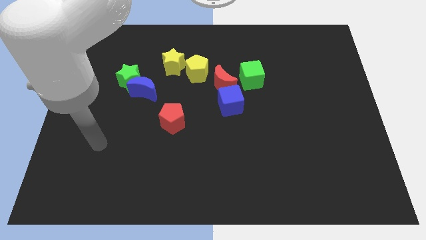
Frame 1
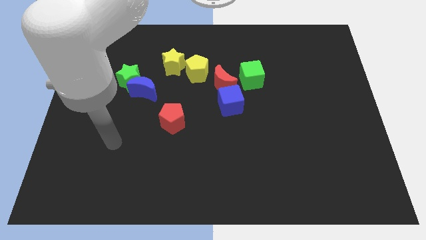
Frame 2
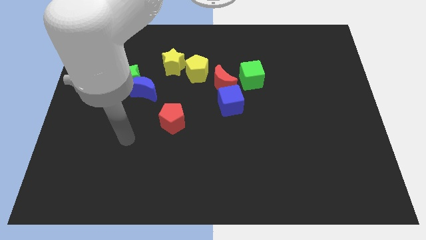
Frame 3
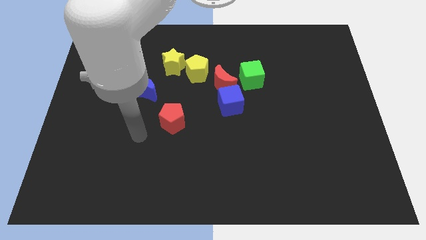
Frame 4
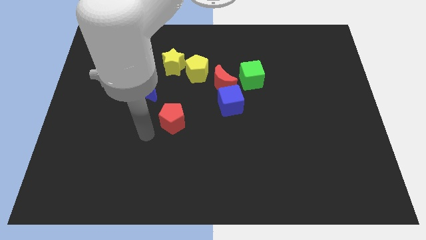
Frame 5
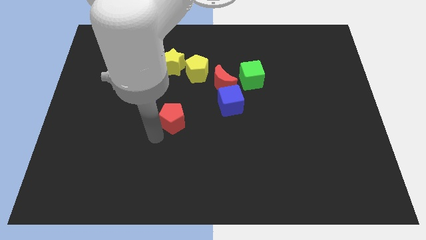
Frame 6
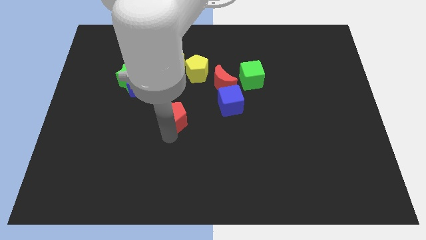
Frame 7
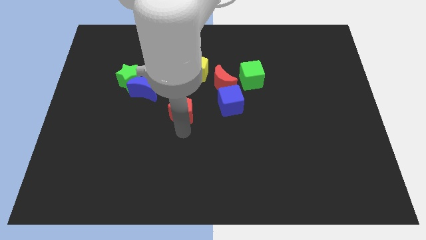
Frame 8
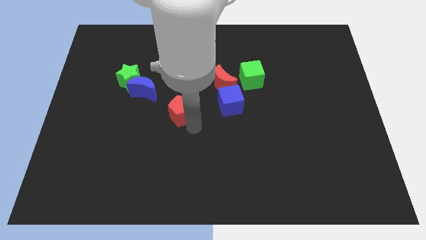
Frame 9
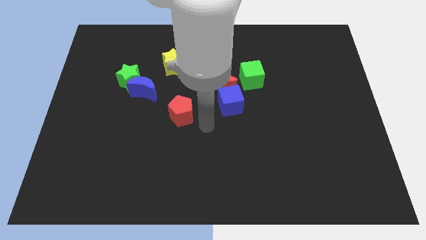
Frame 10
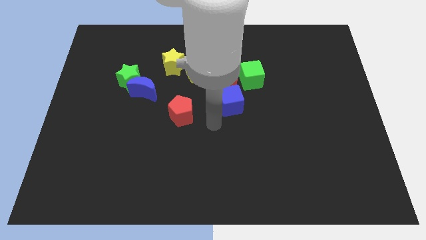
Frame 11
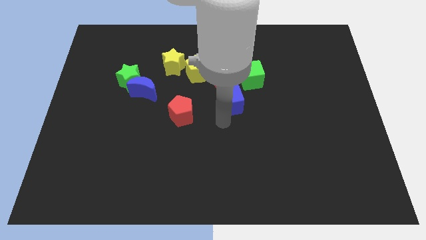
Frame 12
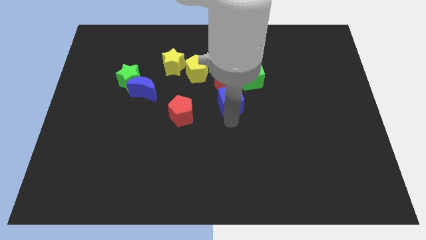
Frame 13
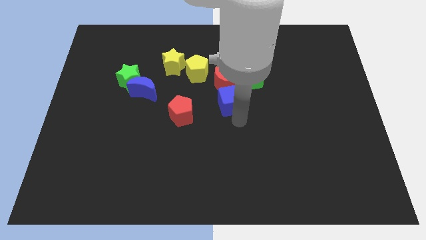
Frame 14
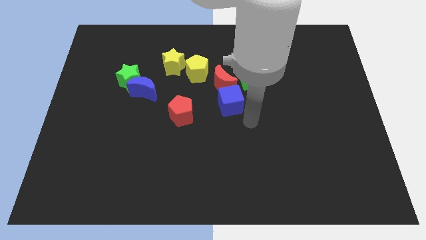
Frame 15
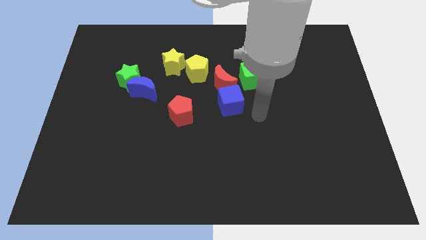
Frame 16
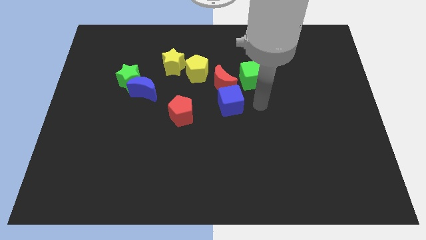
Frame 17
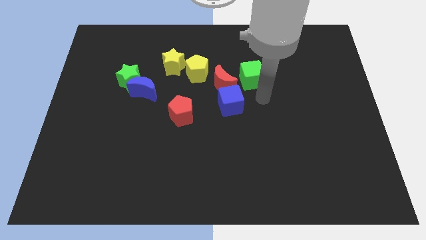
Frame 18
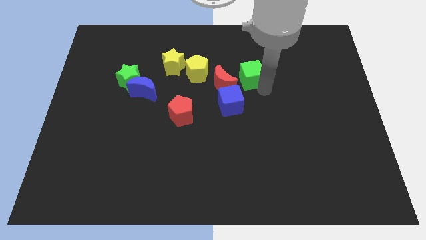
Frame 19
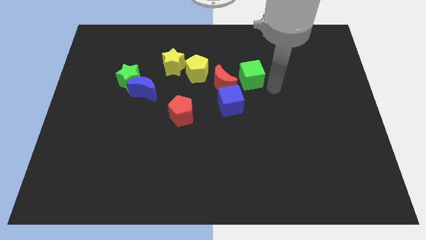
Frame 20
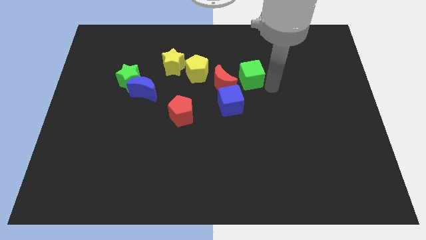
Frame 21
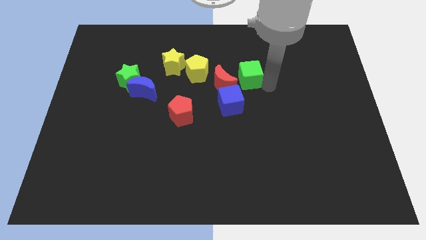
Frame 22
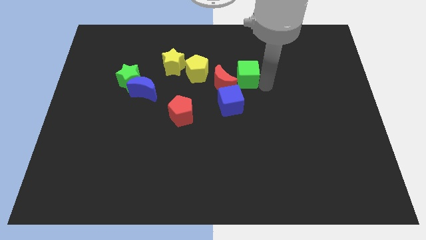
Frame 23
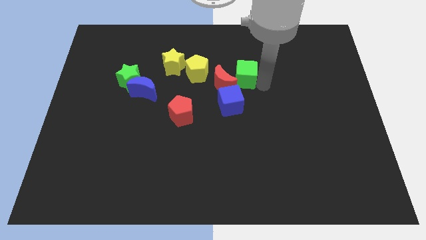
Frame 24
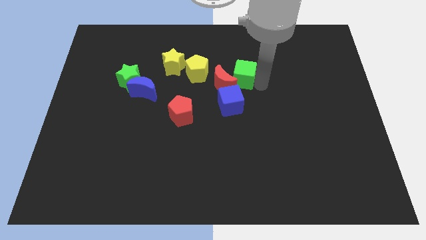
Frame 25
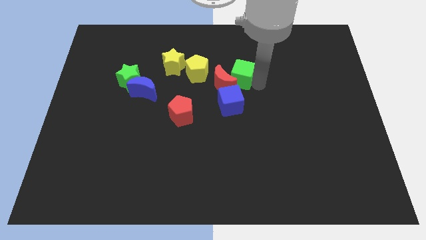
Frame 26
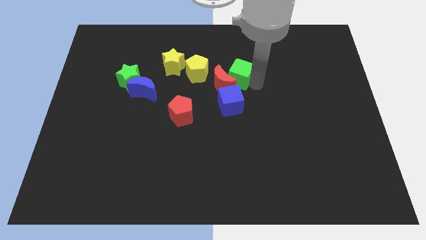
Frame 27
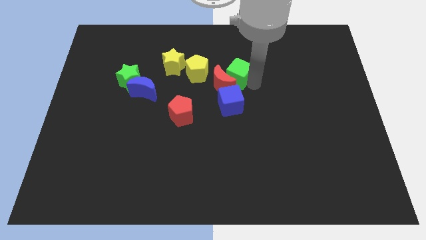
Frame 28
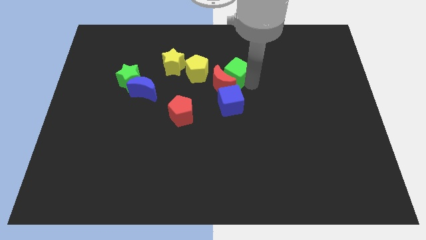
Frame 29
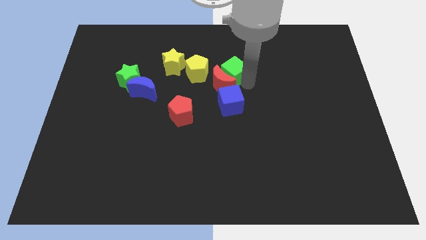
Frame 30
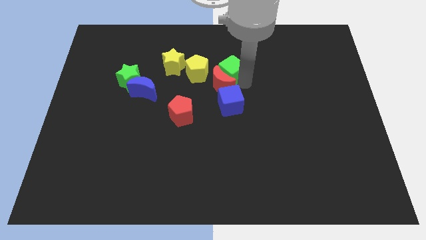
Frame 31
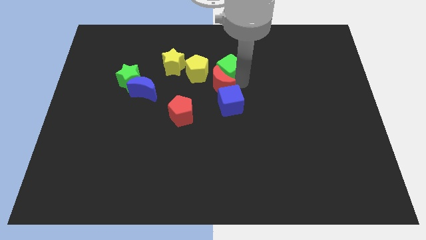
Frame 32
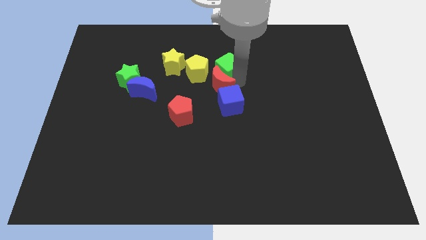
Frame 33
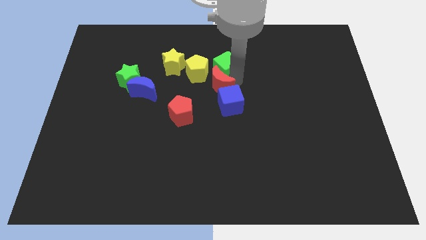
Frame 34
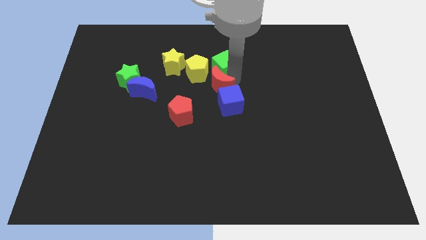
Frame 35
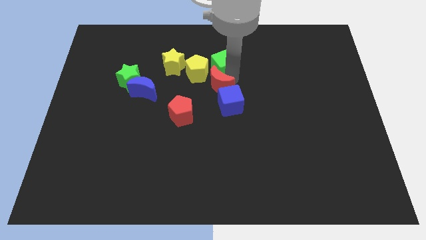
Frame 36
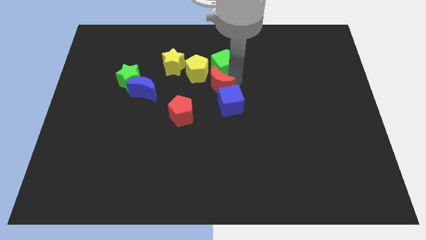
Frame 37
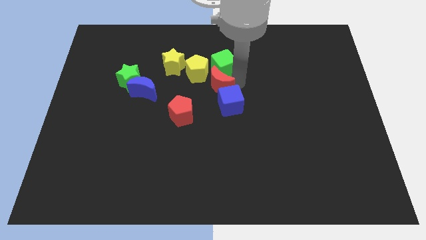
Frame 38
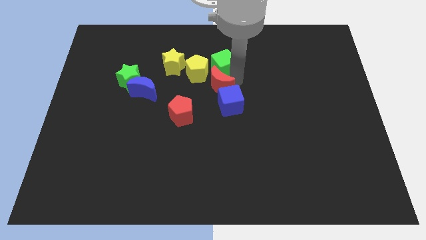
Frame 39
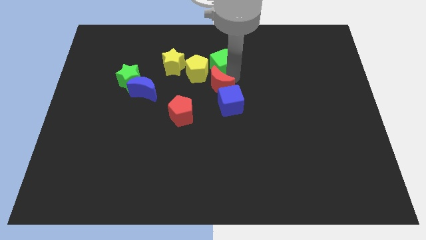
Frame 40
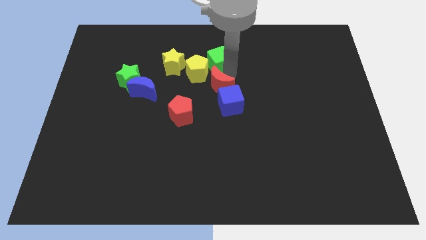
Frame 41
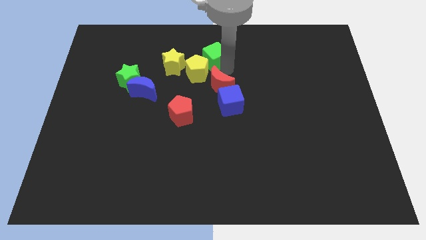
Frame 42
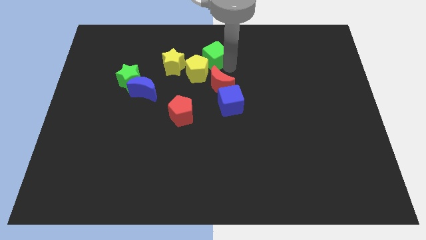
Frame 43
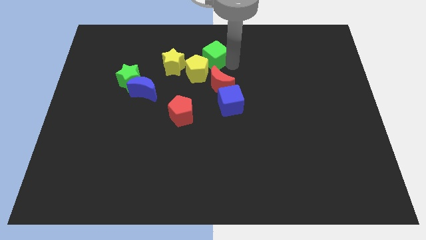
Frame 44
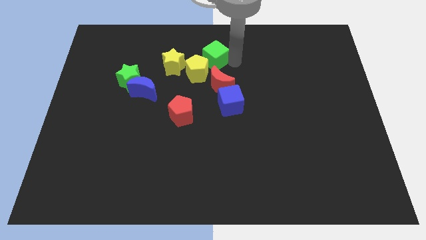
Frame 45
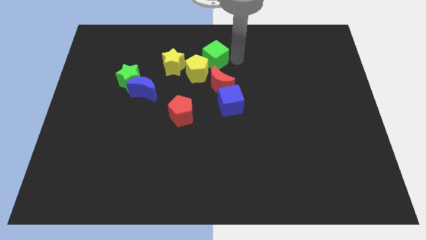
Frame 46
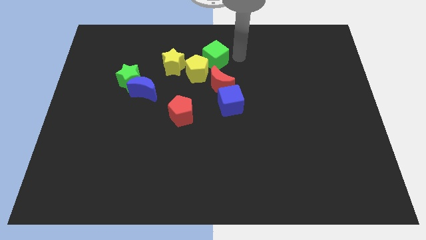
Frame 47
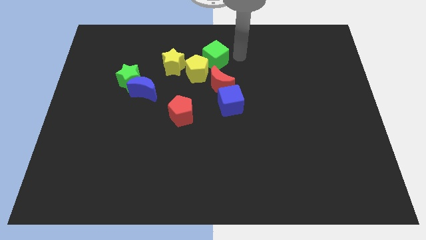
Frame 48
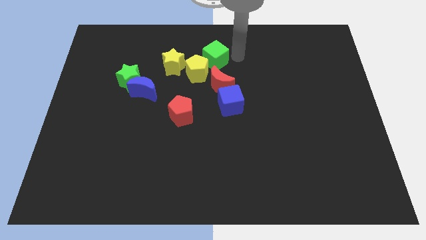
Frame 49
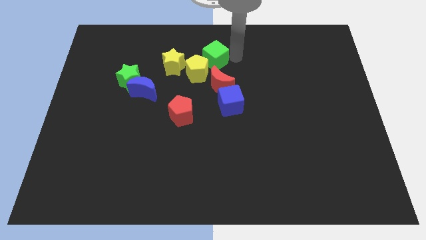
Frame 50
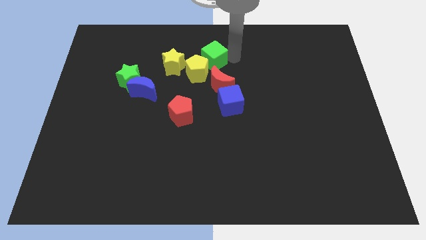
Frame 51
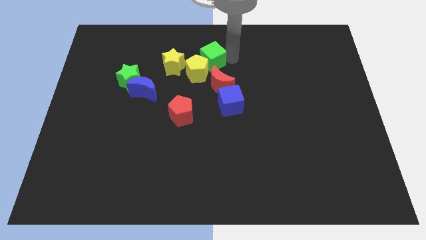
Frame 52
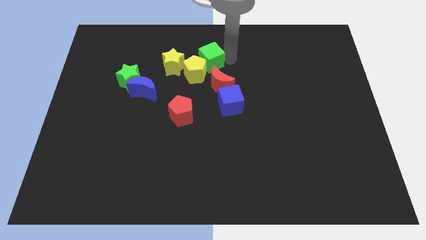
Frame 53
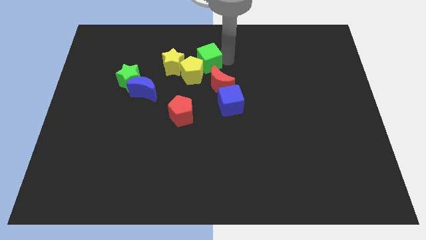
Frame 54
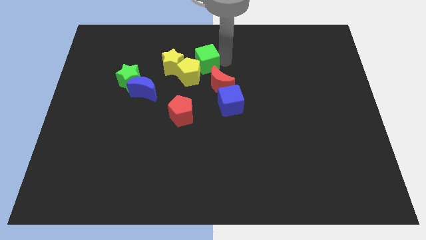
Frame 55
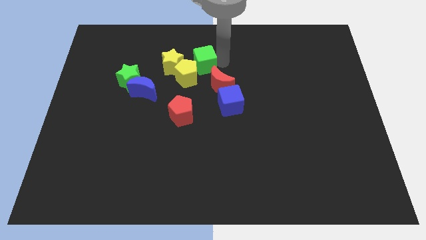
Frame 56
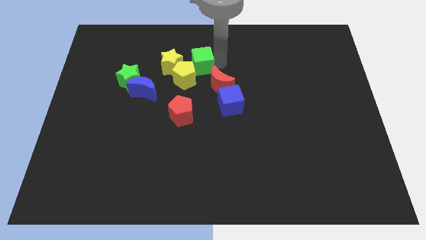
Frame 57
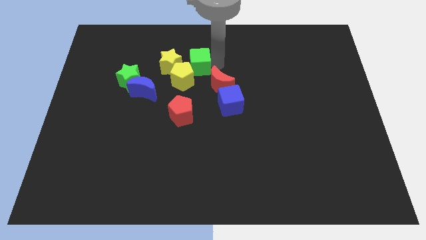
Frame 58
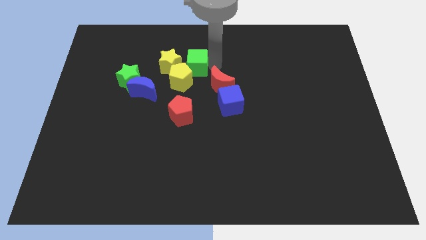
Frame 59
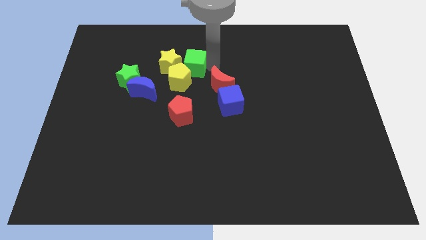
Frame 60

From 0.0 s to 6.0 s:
slide the green cube to the yellow star

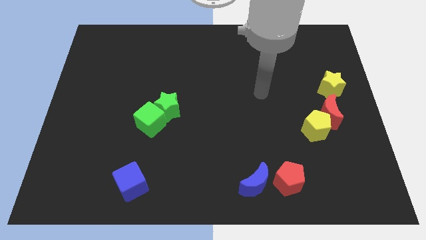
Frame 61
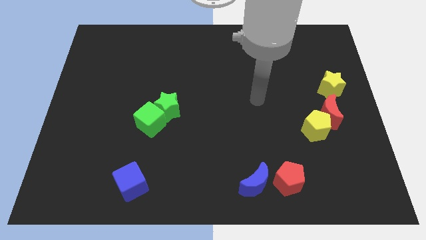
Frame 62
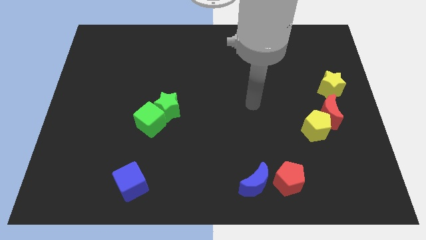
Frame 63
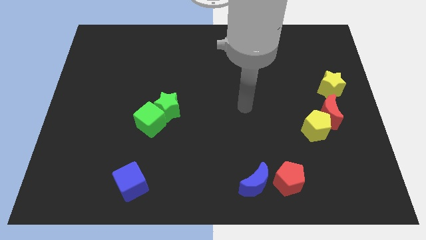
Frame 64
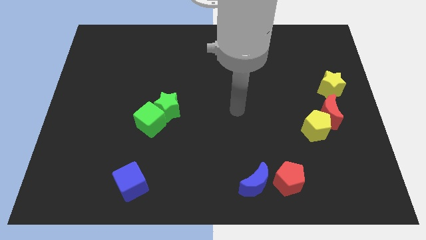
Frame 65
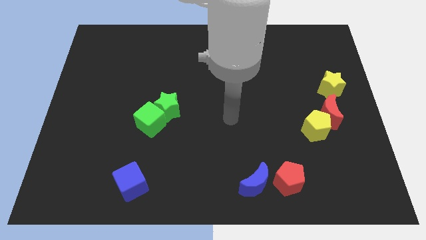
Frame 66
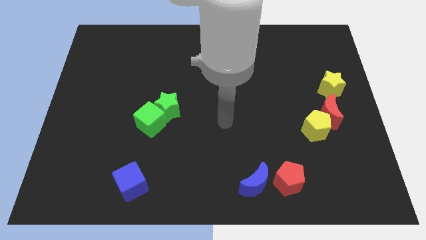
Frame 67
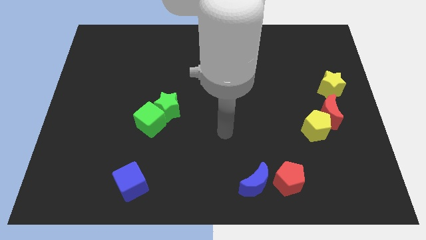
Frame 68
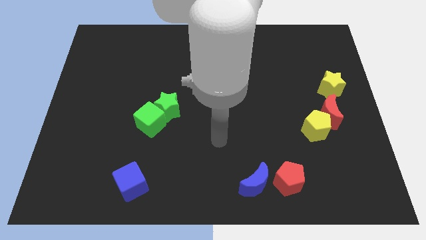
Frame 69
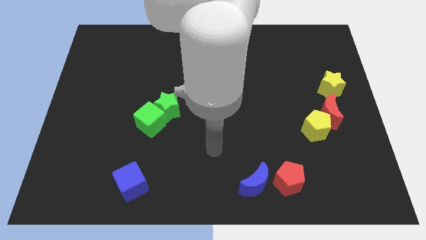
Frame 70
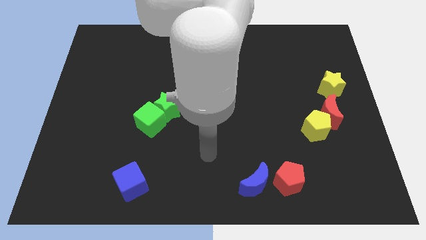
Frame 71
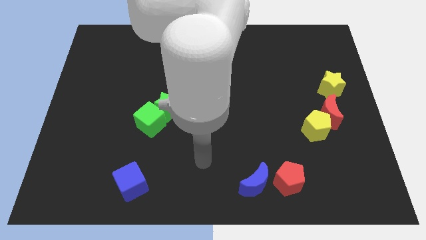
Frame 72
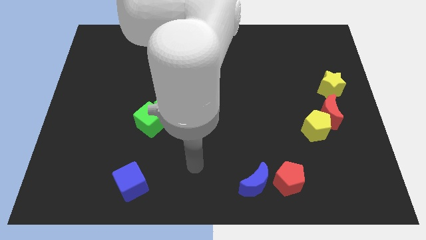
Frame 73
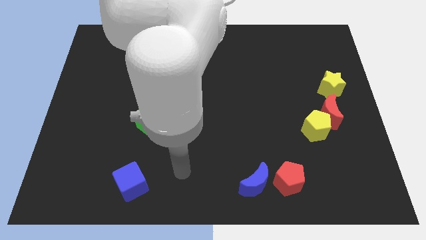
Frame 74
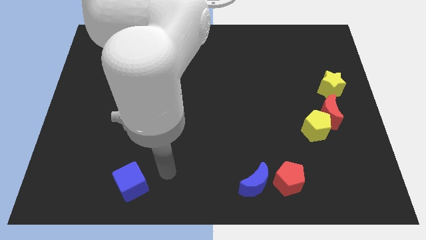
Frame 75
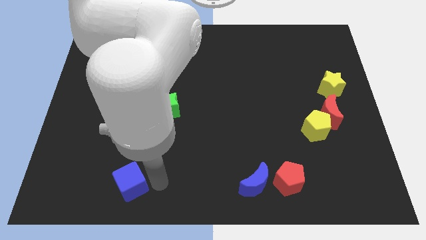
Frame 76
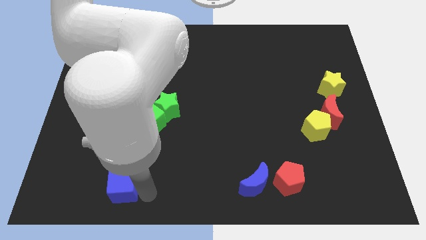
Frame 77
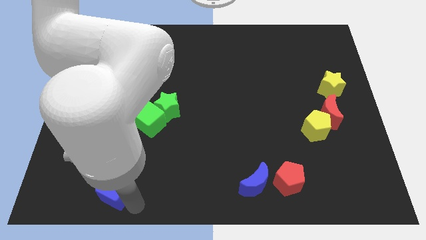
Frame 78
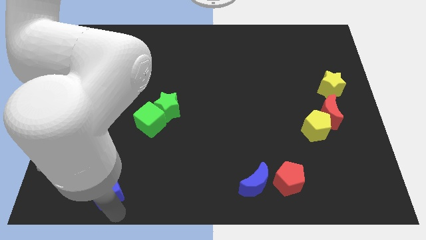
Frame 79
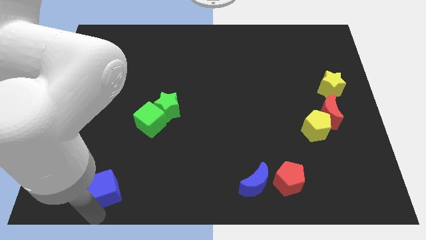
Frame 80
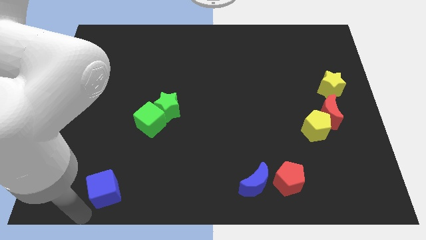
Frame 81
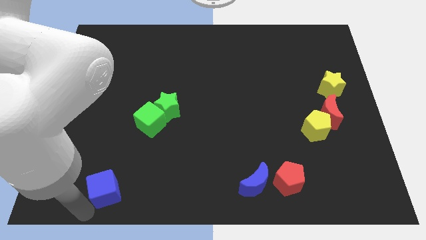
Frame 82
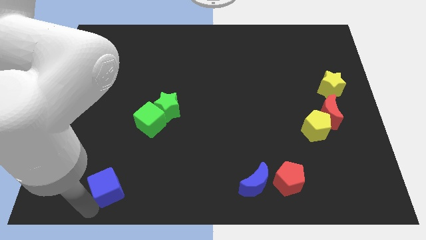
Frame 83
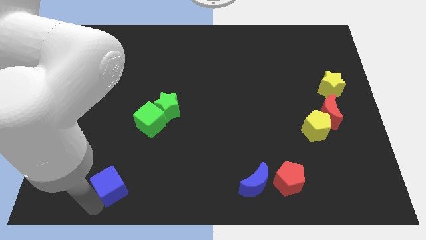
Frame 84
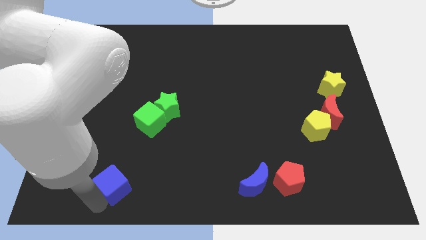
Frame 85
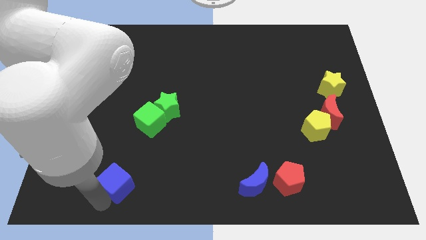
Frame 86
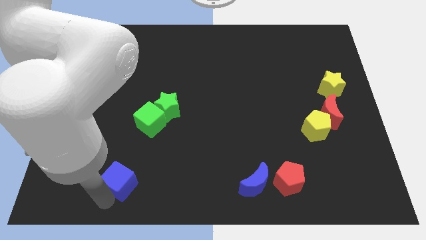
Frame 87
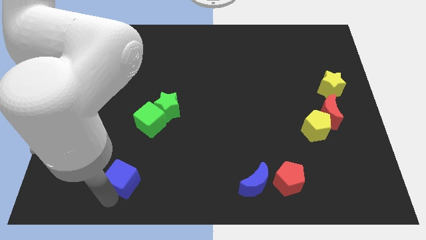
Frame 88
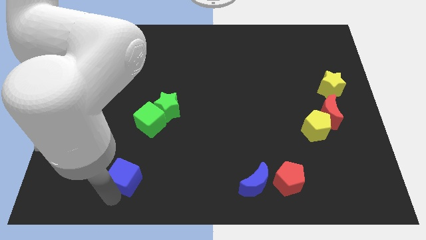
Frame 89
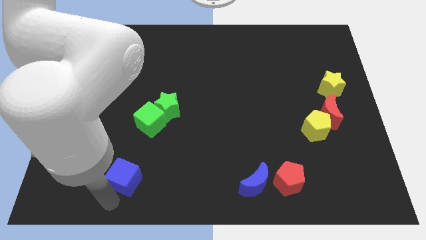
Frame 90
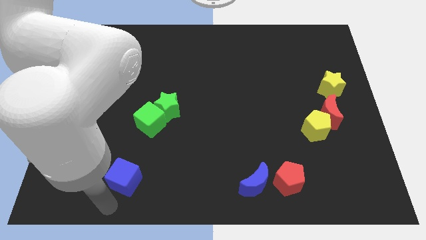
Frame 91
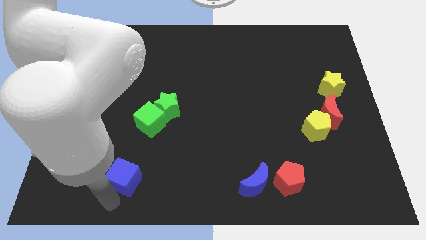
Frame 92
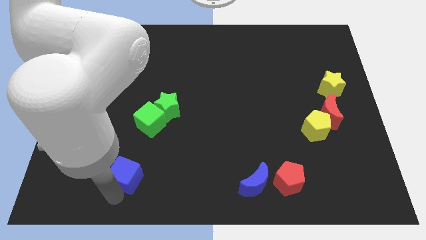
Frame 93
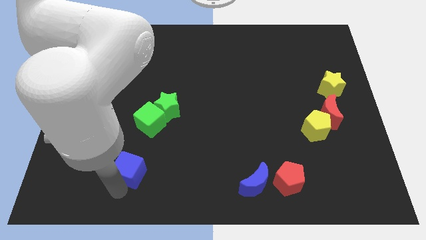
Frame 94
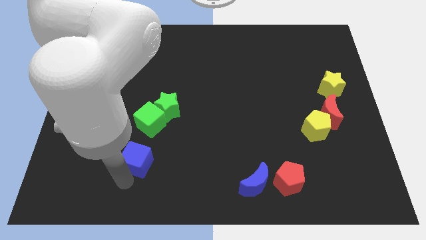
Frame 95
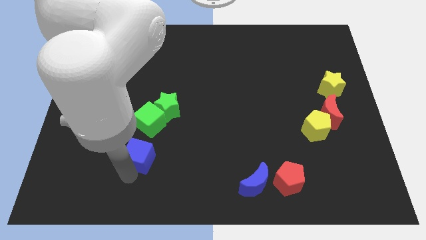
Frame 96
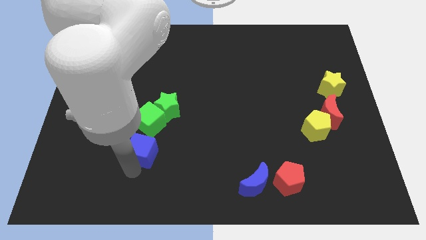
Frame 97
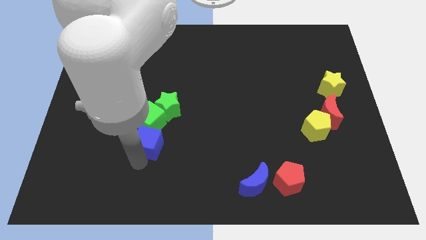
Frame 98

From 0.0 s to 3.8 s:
put the blue cube next to the green cube
